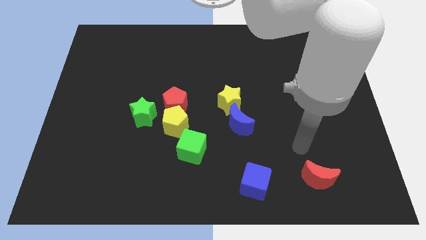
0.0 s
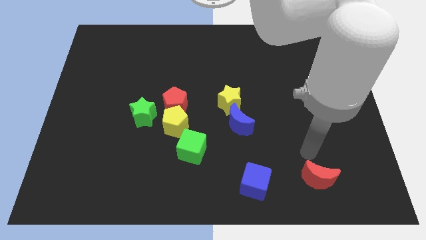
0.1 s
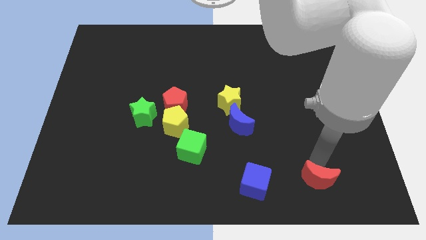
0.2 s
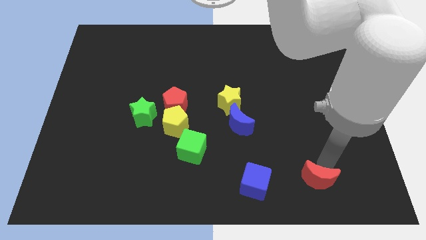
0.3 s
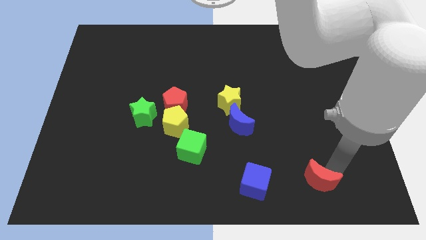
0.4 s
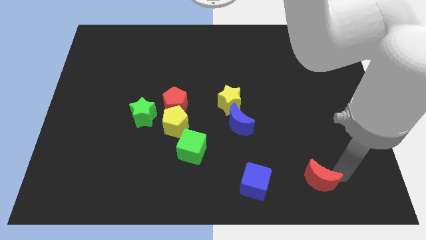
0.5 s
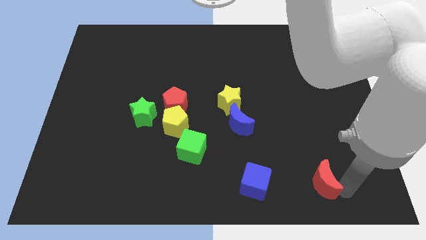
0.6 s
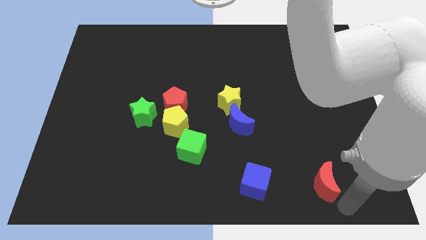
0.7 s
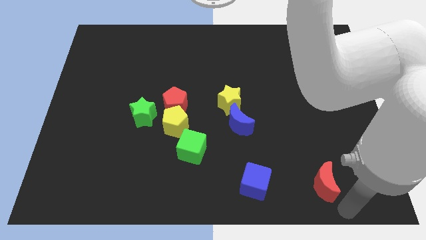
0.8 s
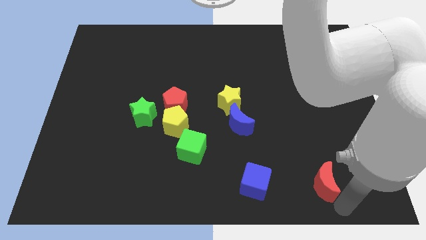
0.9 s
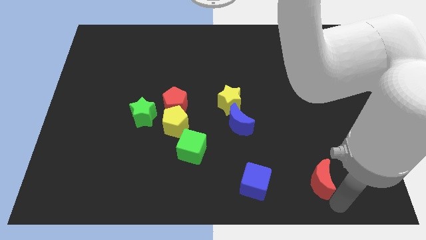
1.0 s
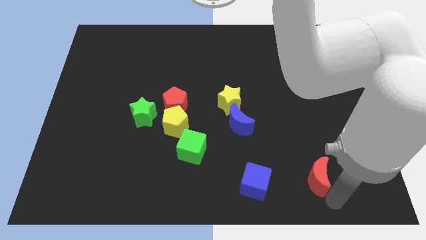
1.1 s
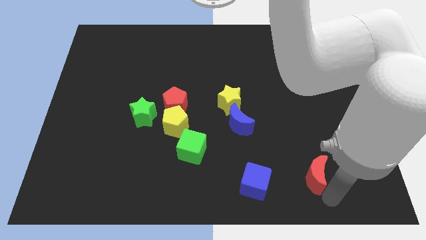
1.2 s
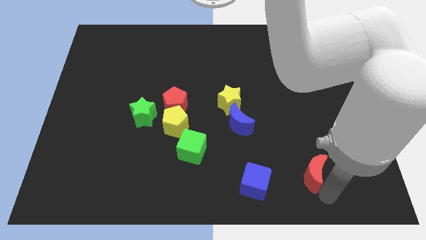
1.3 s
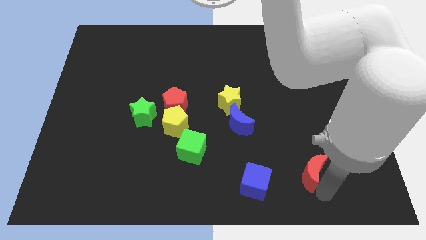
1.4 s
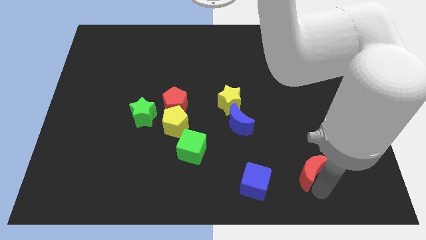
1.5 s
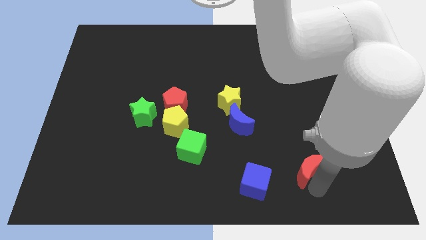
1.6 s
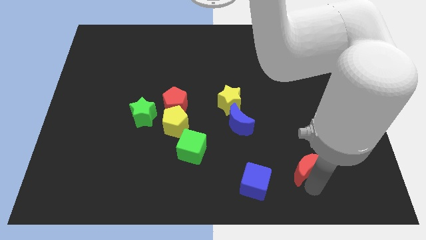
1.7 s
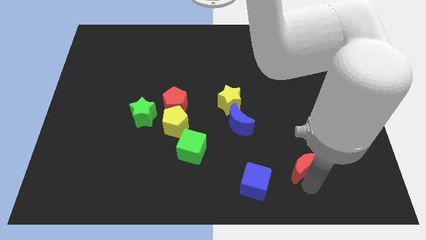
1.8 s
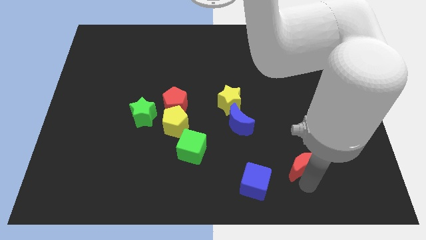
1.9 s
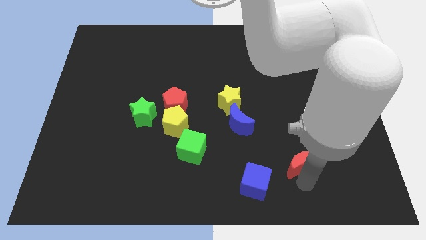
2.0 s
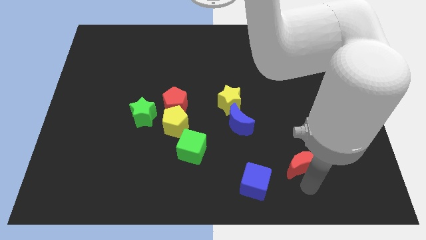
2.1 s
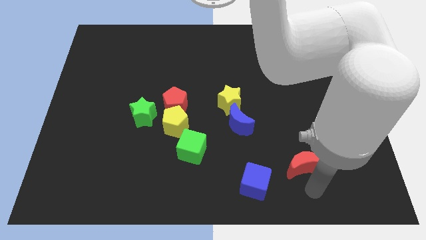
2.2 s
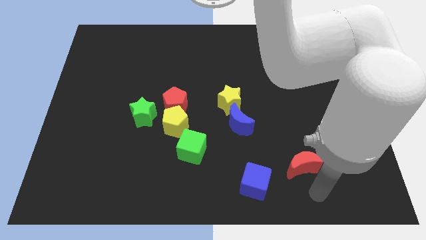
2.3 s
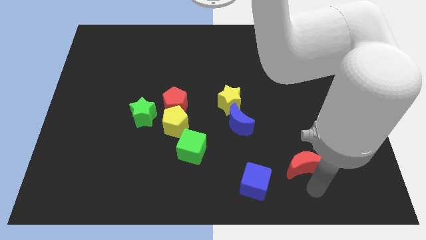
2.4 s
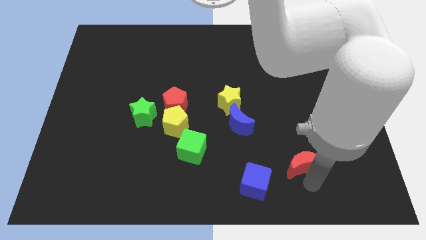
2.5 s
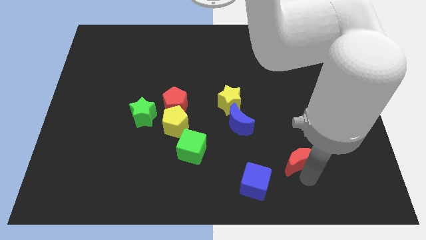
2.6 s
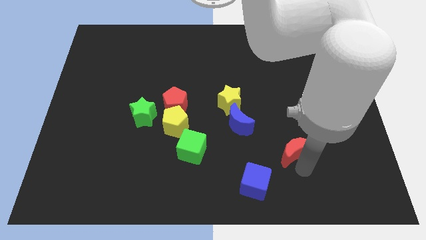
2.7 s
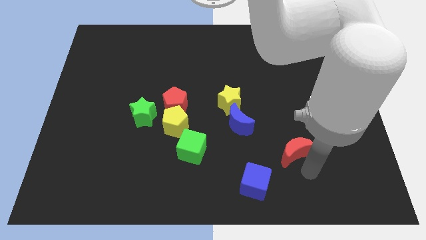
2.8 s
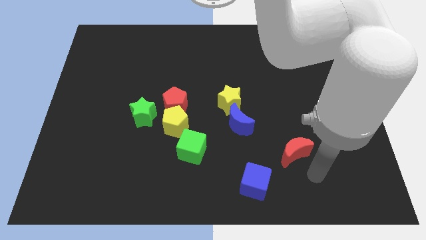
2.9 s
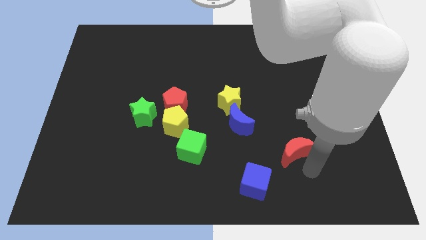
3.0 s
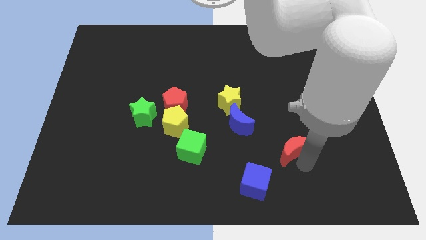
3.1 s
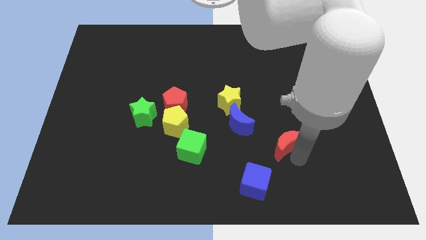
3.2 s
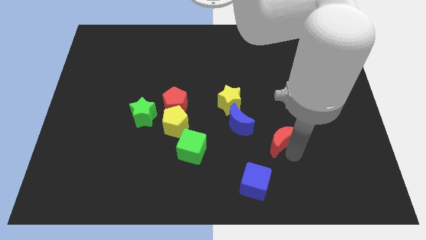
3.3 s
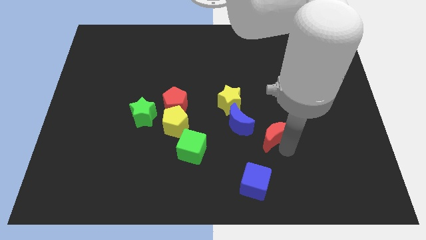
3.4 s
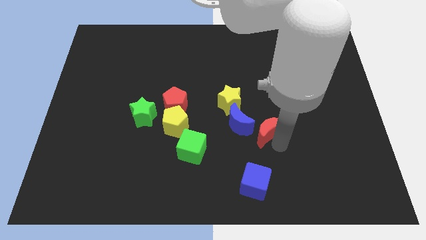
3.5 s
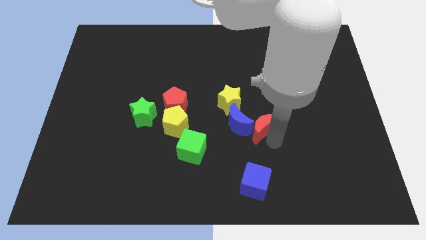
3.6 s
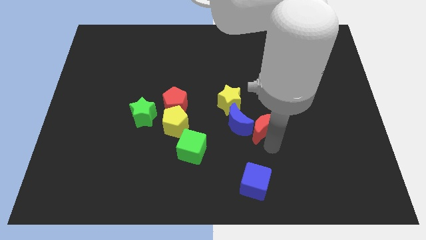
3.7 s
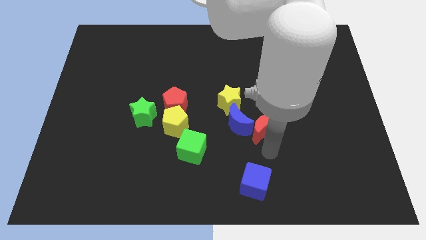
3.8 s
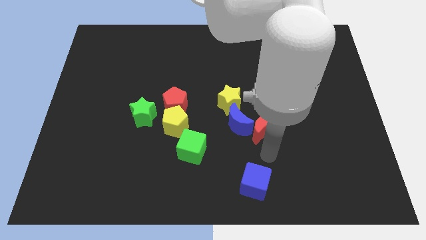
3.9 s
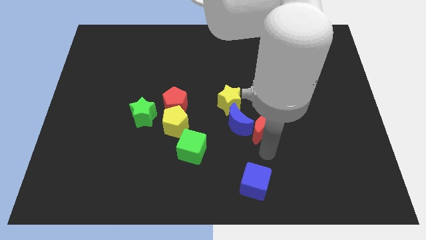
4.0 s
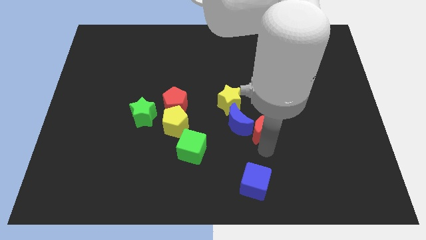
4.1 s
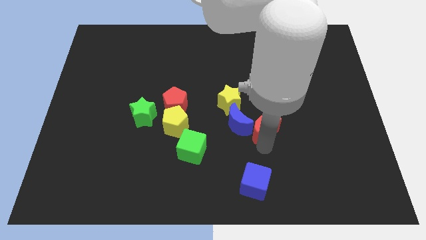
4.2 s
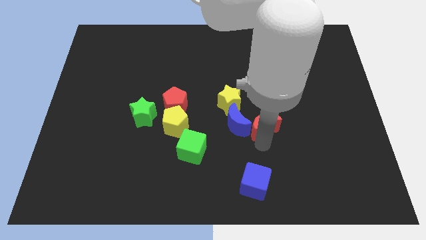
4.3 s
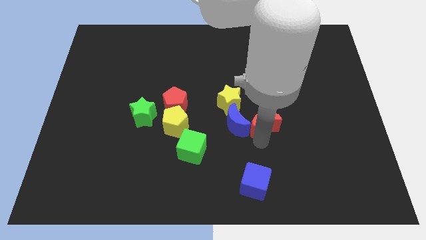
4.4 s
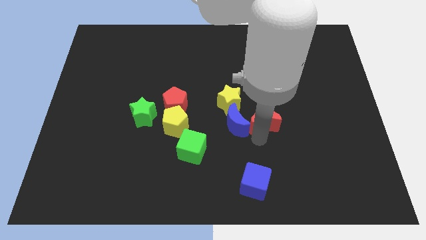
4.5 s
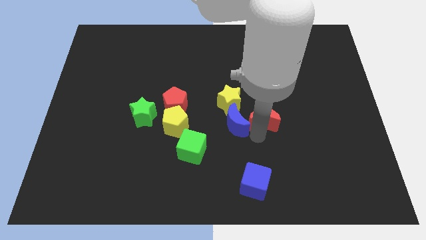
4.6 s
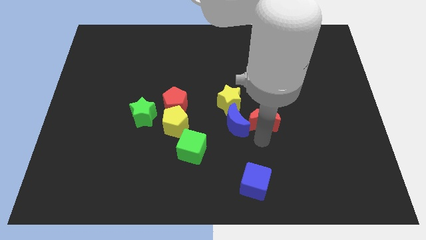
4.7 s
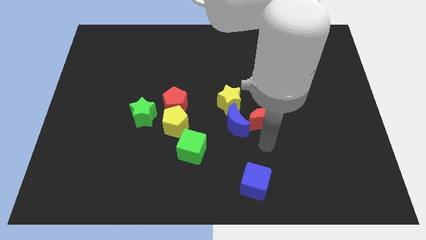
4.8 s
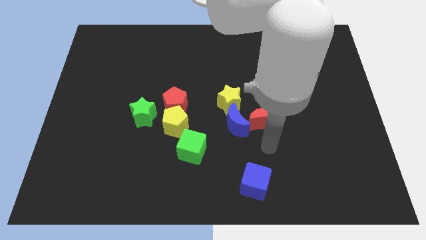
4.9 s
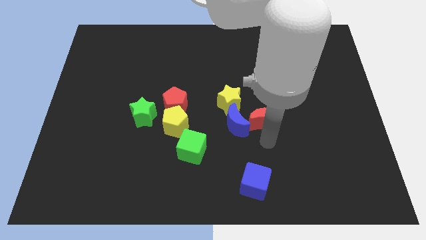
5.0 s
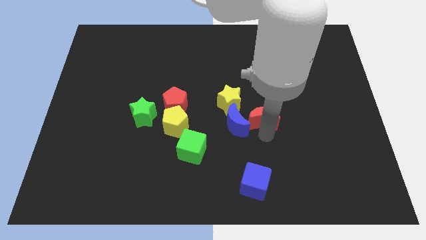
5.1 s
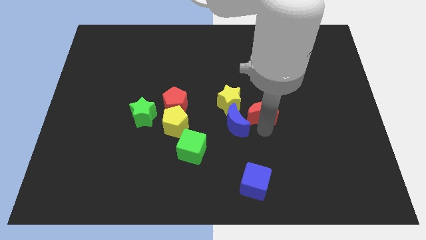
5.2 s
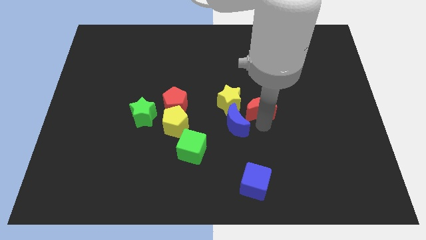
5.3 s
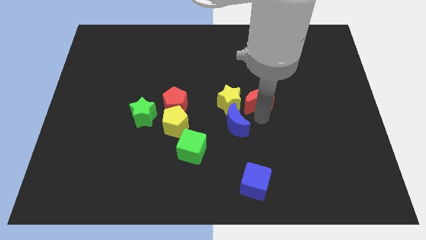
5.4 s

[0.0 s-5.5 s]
slide the red moon diagonally up and to the right of the yellow star

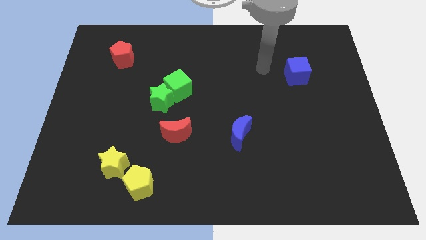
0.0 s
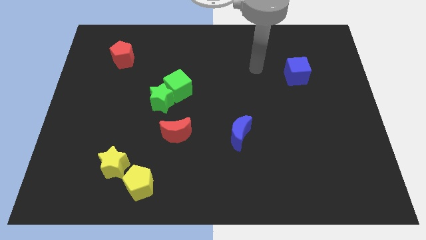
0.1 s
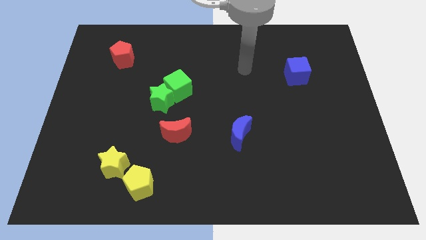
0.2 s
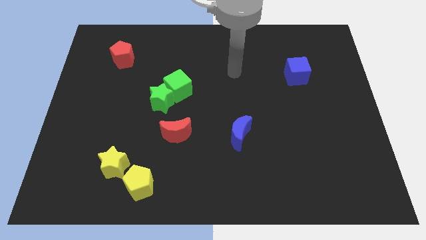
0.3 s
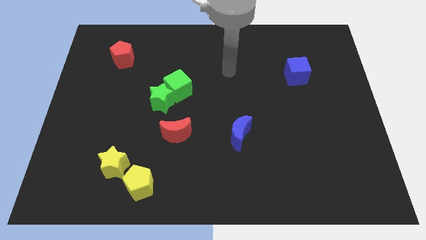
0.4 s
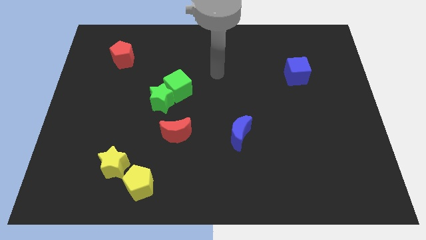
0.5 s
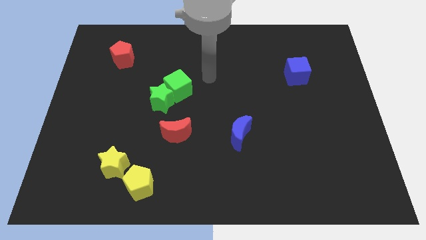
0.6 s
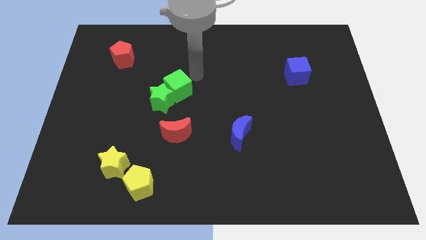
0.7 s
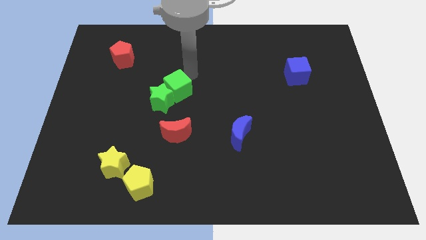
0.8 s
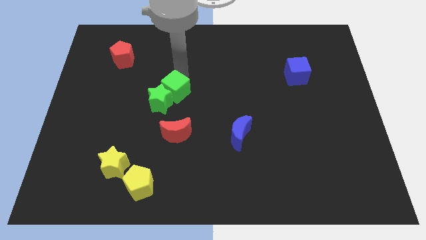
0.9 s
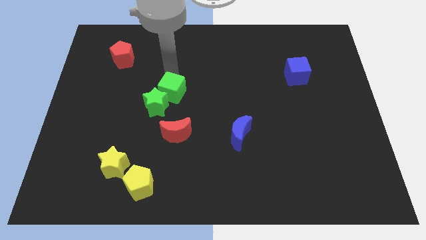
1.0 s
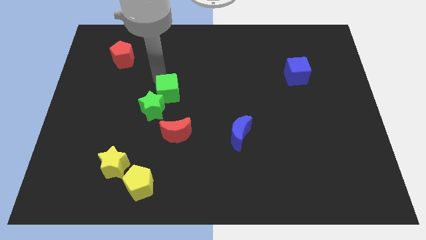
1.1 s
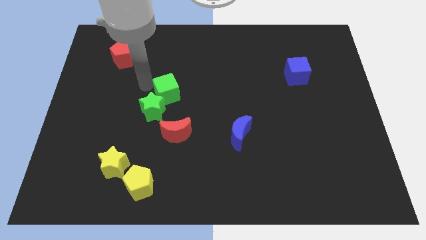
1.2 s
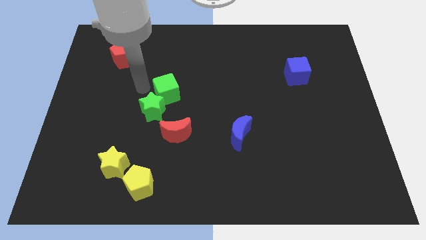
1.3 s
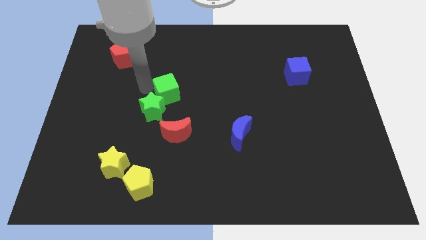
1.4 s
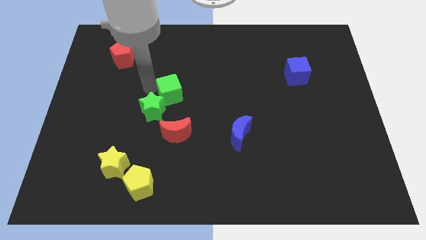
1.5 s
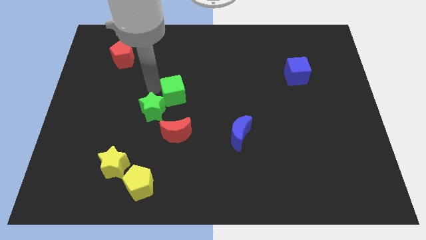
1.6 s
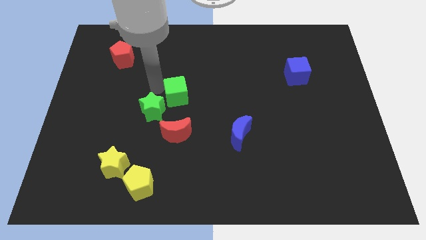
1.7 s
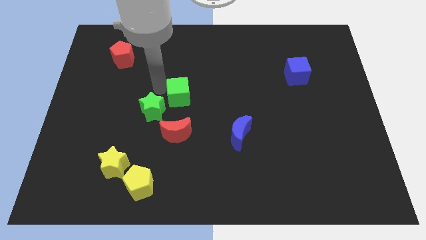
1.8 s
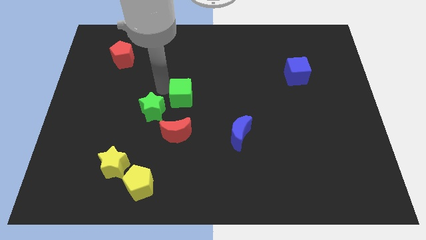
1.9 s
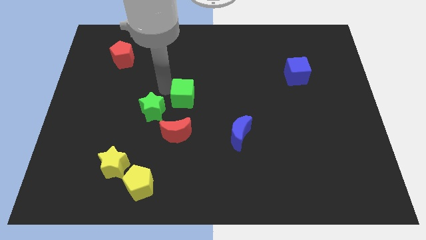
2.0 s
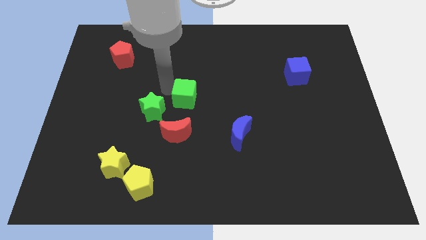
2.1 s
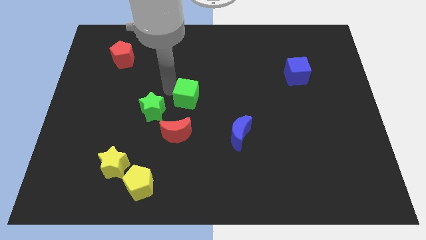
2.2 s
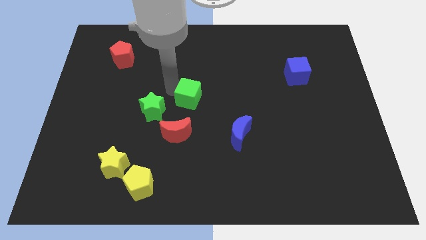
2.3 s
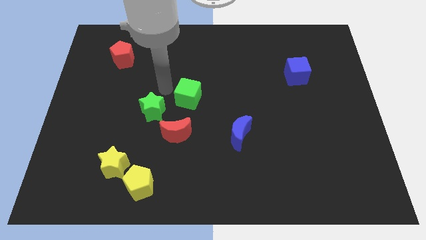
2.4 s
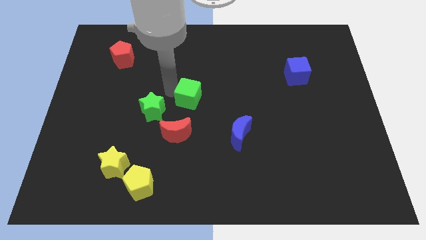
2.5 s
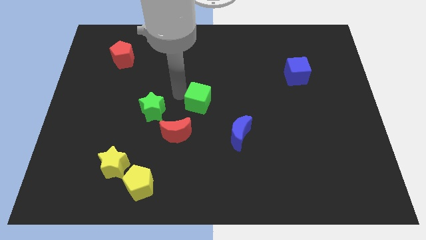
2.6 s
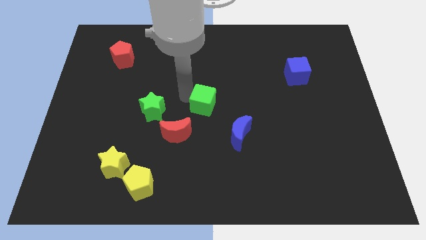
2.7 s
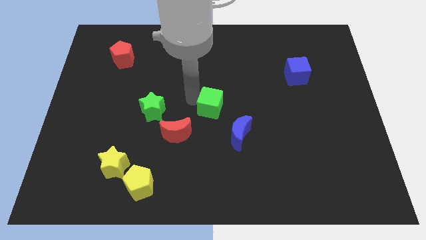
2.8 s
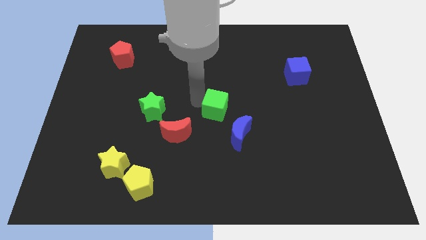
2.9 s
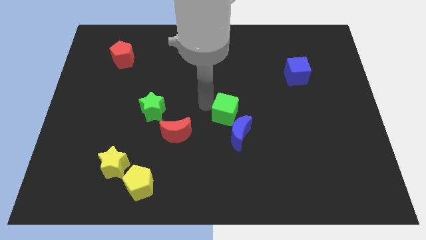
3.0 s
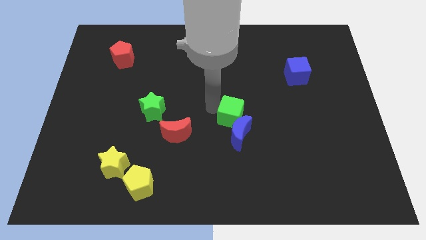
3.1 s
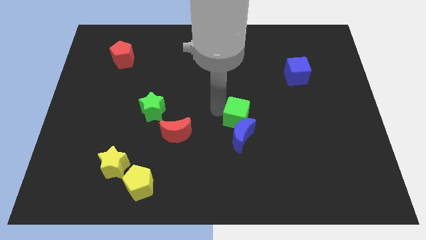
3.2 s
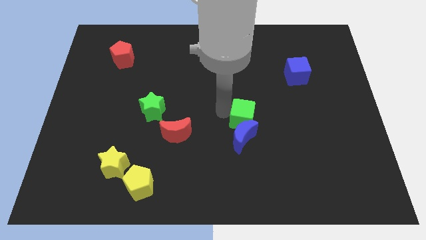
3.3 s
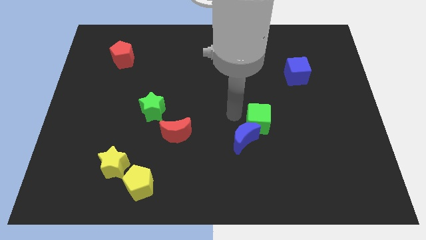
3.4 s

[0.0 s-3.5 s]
slide the green cube to the right of the blue moon
